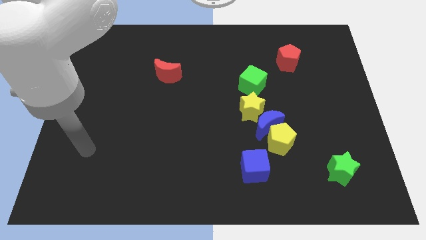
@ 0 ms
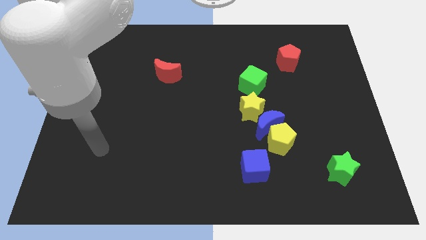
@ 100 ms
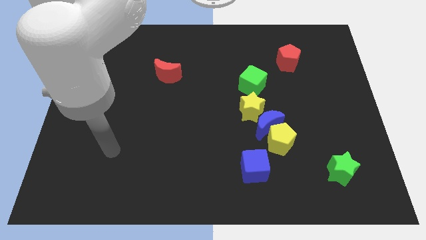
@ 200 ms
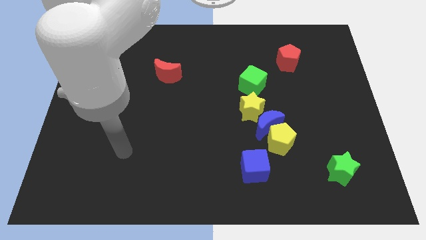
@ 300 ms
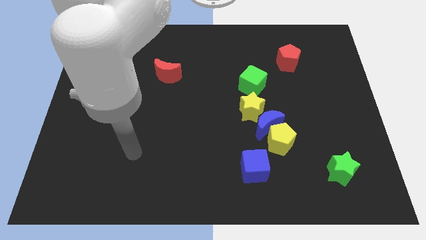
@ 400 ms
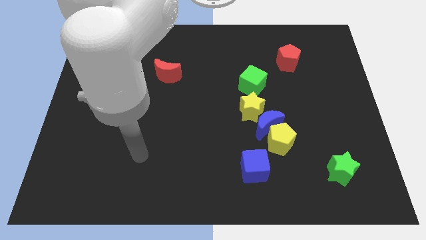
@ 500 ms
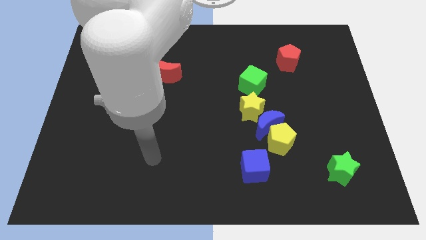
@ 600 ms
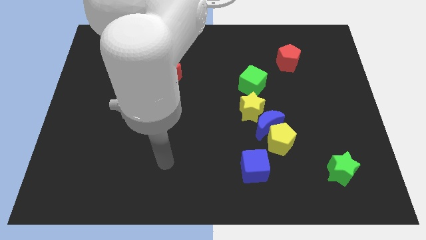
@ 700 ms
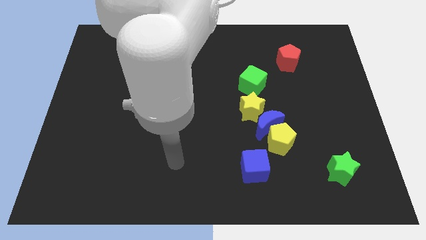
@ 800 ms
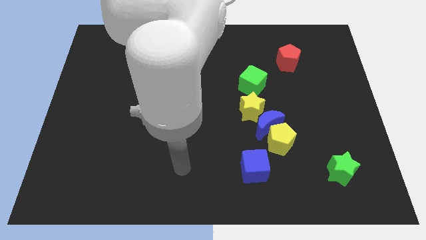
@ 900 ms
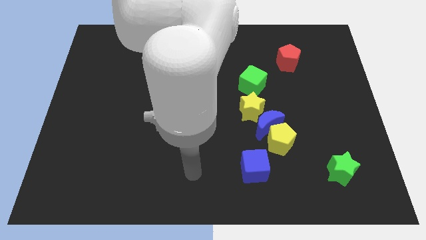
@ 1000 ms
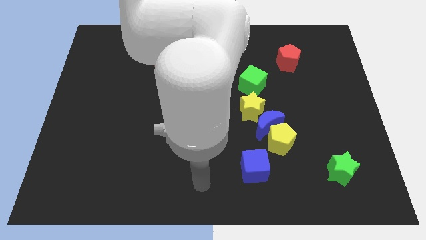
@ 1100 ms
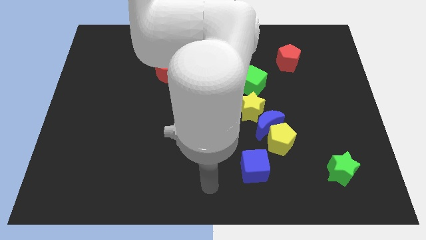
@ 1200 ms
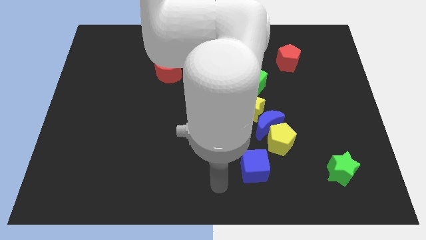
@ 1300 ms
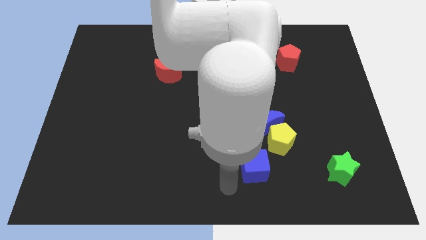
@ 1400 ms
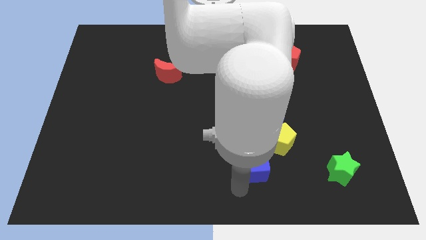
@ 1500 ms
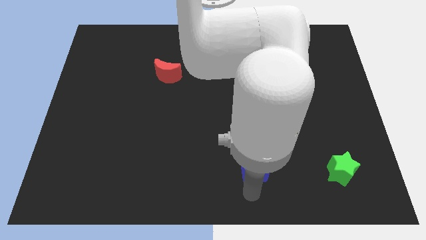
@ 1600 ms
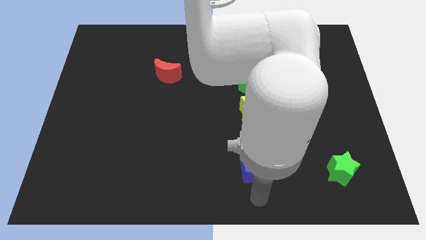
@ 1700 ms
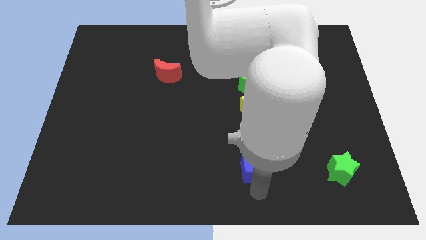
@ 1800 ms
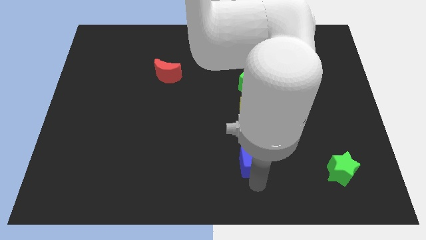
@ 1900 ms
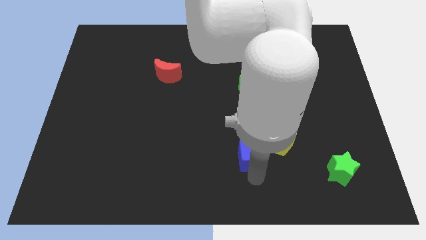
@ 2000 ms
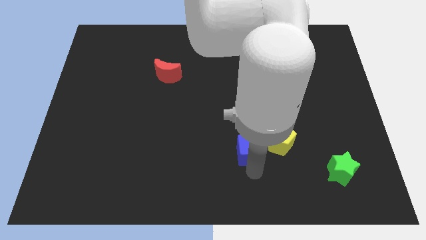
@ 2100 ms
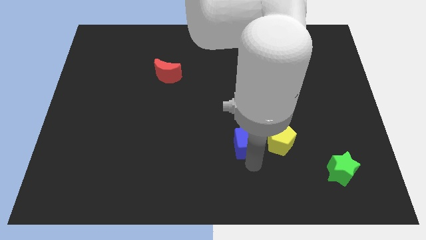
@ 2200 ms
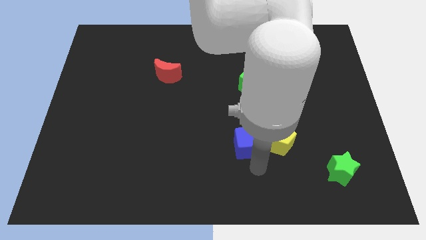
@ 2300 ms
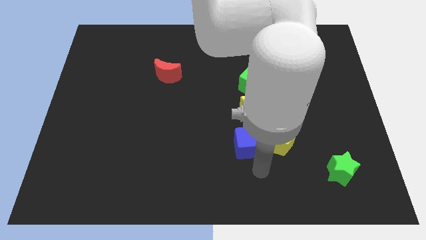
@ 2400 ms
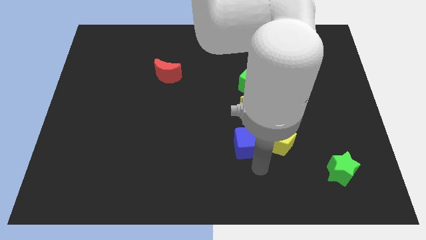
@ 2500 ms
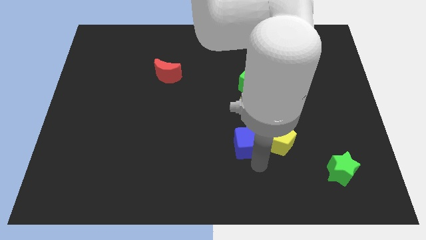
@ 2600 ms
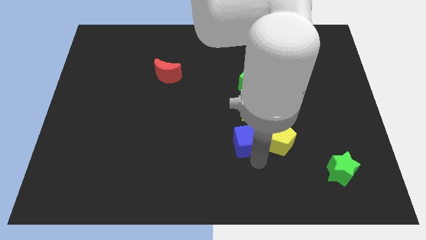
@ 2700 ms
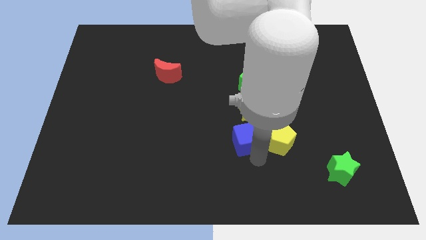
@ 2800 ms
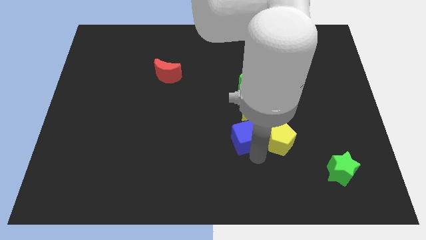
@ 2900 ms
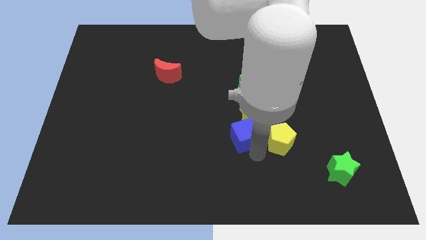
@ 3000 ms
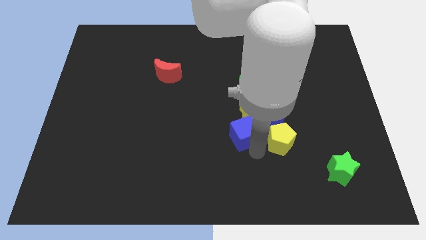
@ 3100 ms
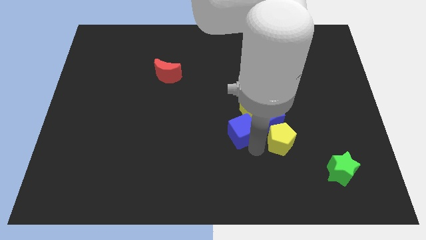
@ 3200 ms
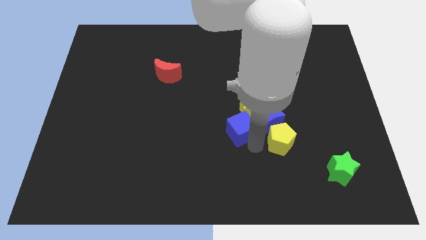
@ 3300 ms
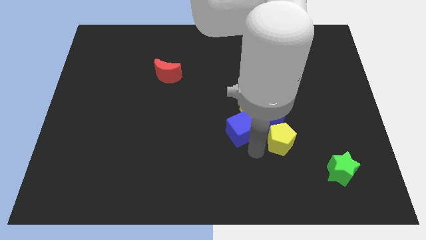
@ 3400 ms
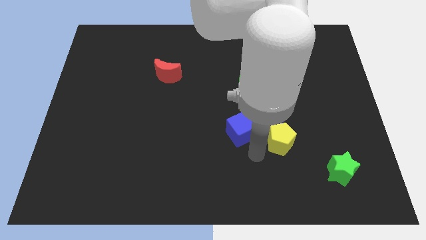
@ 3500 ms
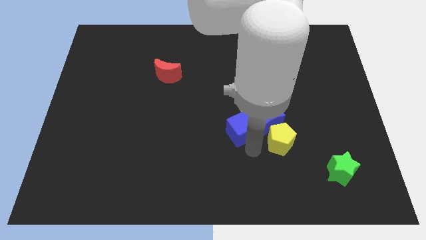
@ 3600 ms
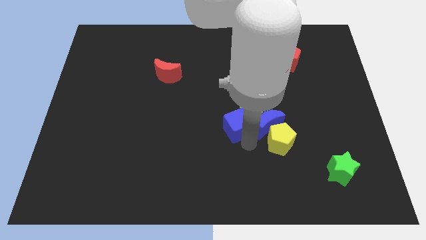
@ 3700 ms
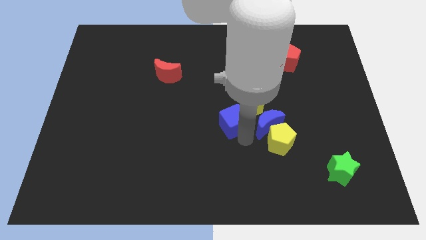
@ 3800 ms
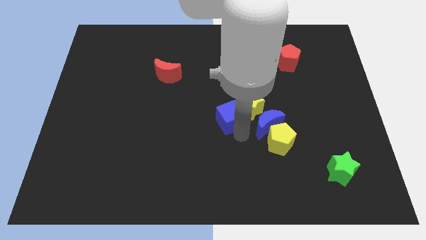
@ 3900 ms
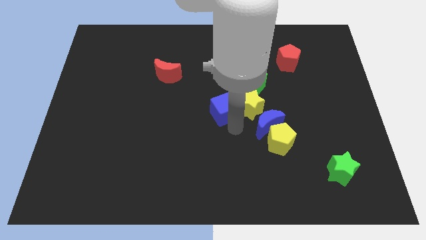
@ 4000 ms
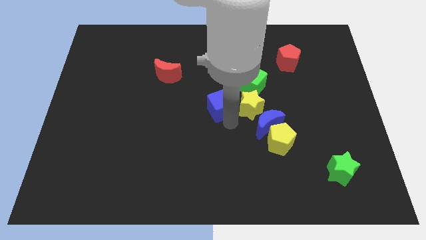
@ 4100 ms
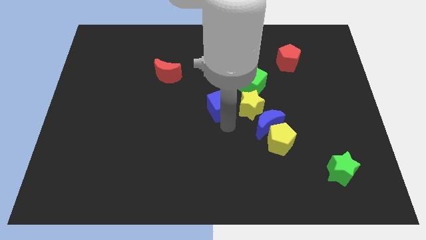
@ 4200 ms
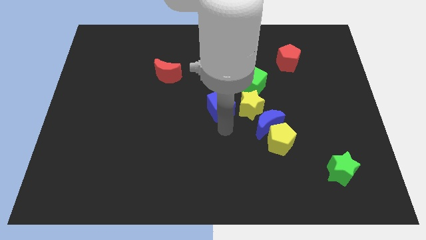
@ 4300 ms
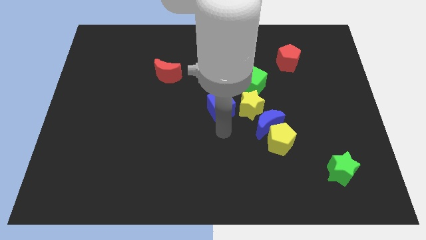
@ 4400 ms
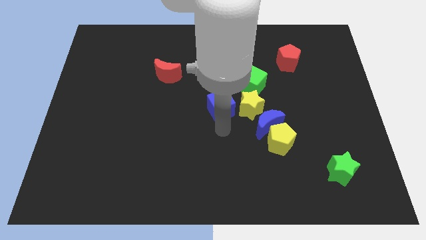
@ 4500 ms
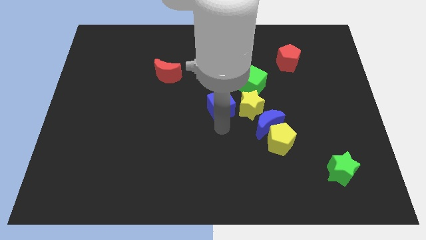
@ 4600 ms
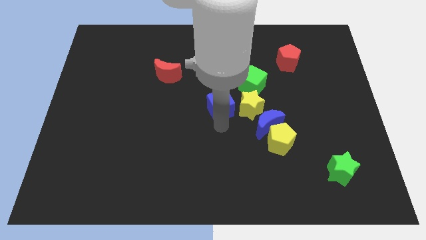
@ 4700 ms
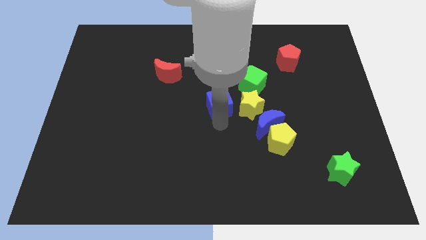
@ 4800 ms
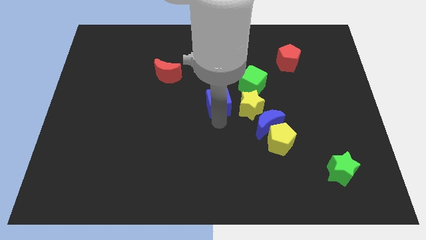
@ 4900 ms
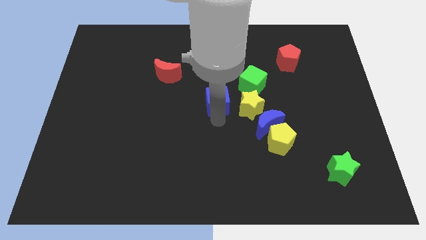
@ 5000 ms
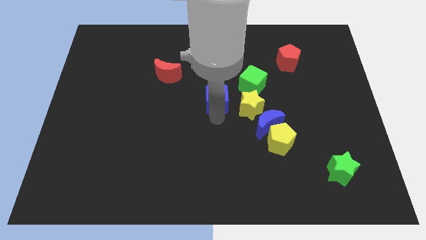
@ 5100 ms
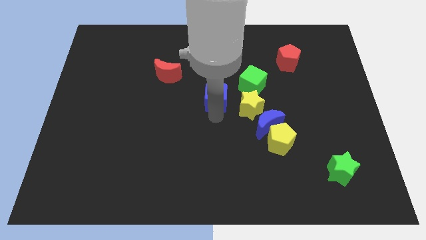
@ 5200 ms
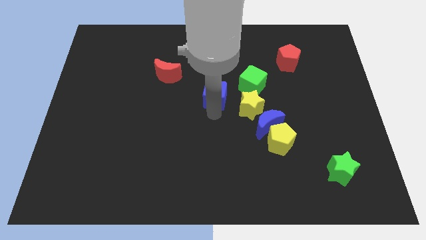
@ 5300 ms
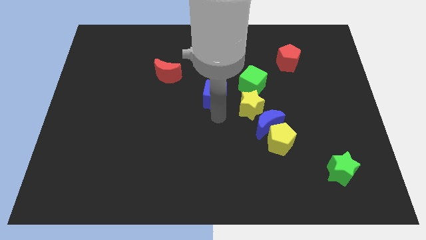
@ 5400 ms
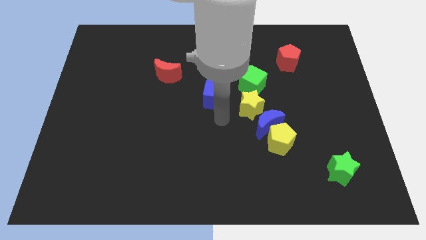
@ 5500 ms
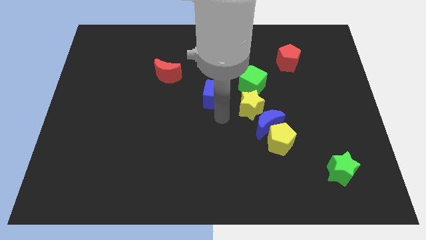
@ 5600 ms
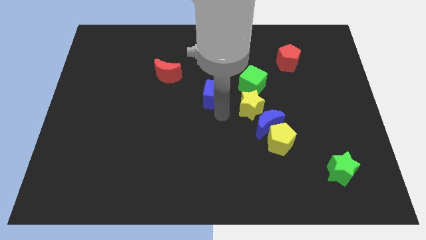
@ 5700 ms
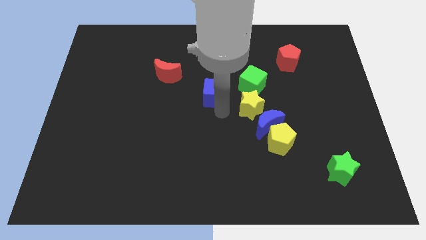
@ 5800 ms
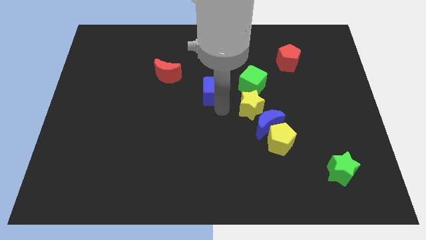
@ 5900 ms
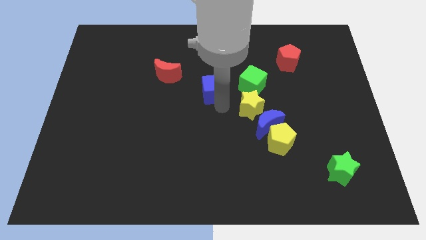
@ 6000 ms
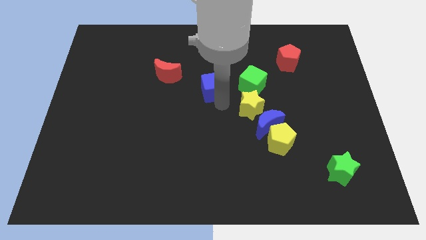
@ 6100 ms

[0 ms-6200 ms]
slide the blue cube to the right side of the red moon

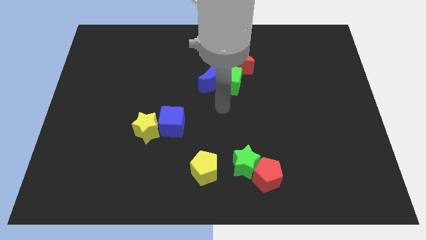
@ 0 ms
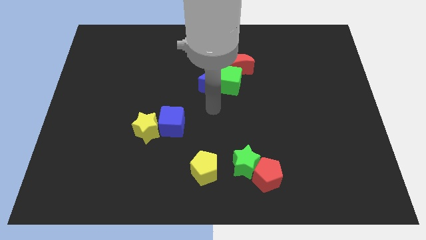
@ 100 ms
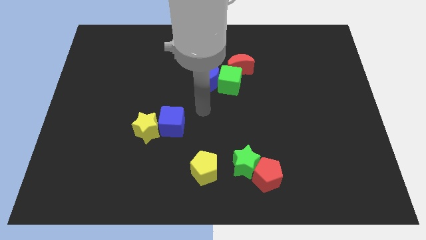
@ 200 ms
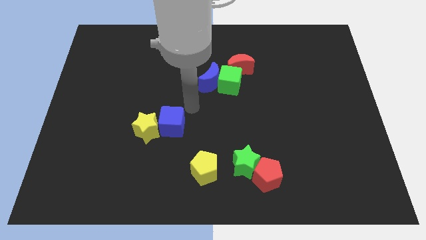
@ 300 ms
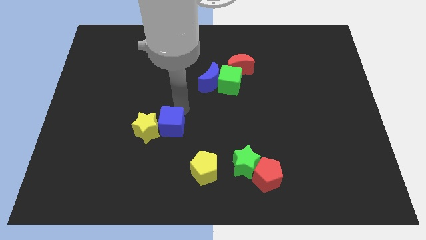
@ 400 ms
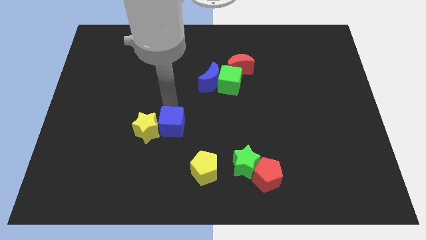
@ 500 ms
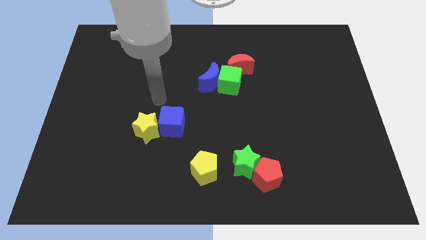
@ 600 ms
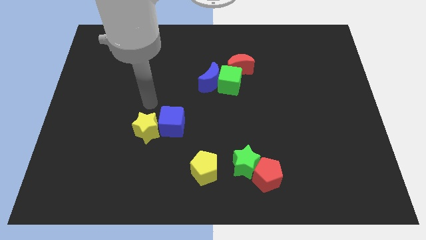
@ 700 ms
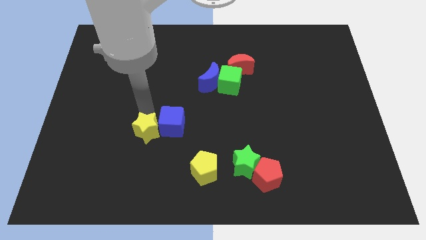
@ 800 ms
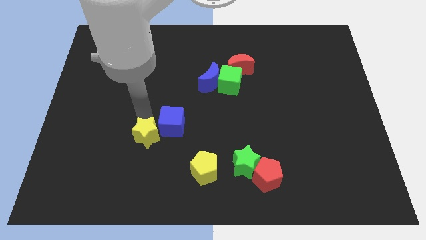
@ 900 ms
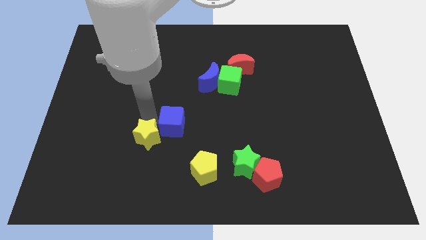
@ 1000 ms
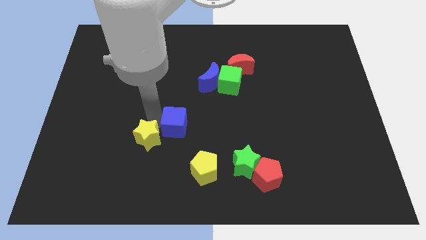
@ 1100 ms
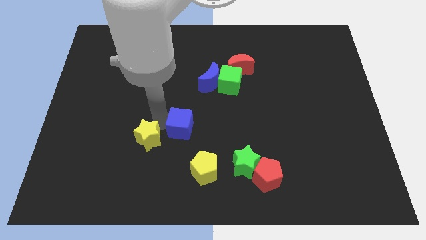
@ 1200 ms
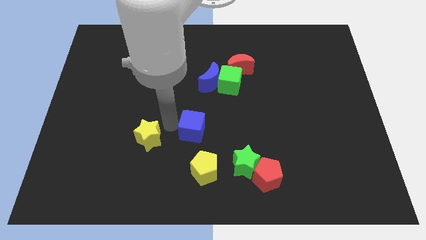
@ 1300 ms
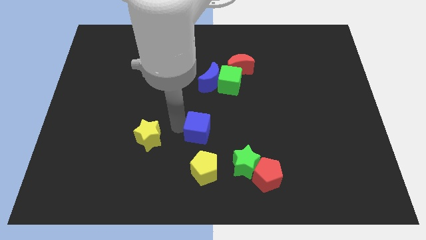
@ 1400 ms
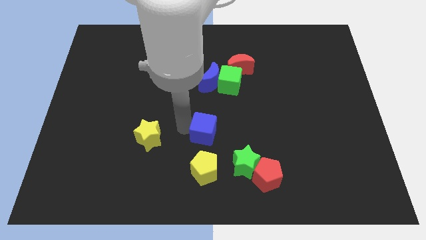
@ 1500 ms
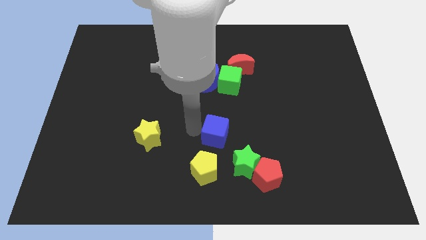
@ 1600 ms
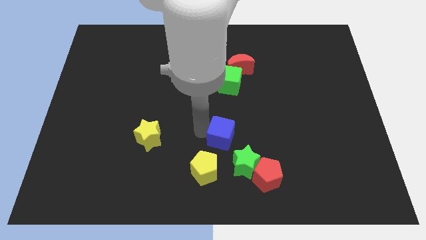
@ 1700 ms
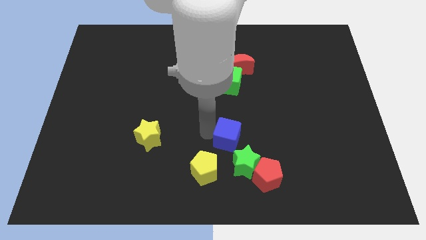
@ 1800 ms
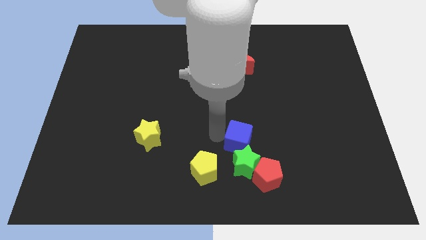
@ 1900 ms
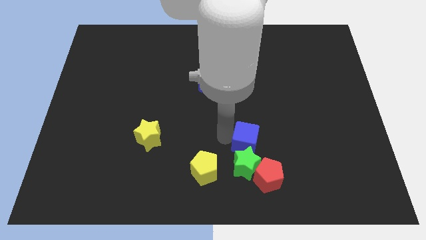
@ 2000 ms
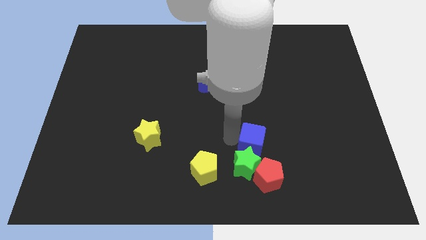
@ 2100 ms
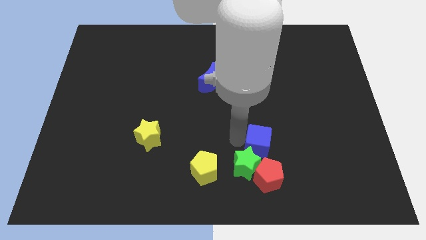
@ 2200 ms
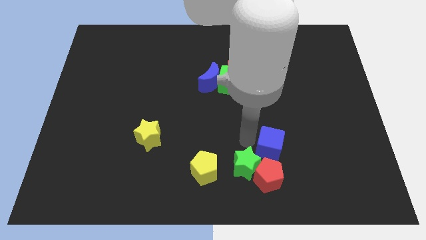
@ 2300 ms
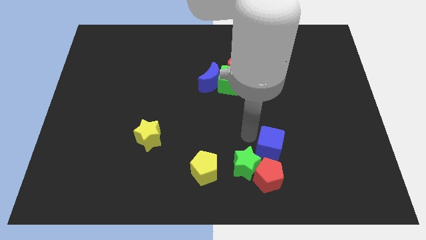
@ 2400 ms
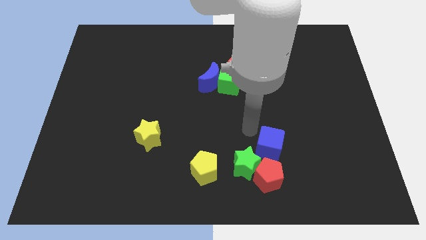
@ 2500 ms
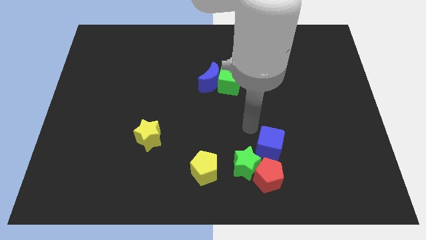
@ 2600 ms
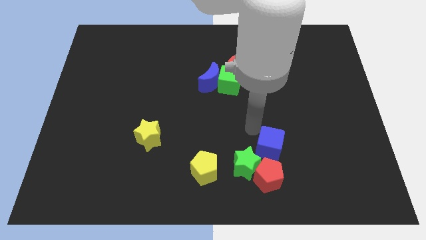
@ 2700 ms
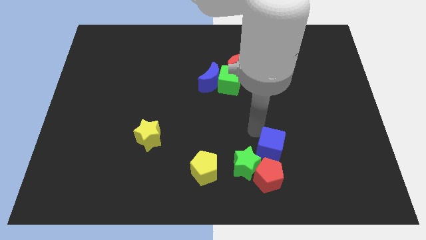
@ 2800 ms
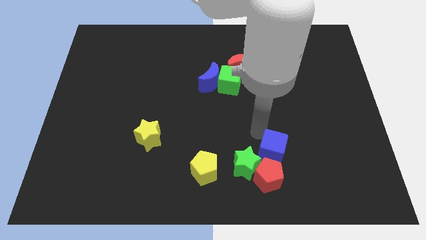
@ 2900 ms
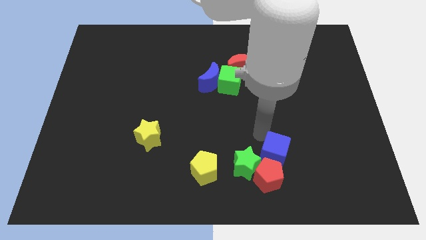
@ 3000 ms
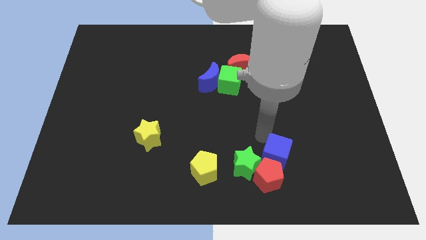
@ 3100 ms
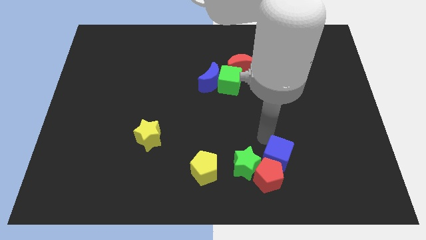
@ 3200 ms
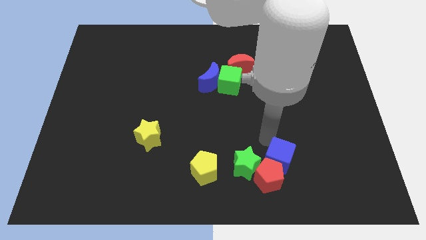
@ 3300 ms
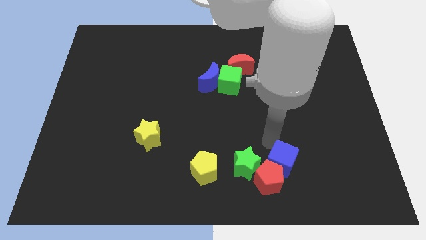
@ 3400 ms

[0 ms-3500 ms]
move the blue cube to the right of the red pentagon
